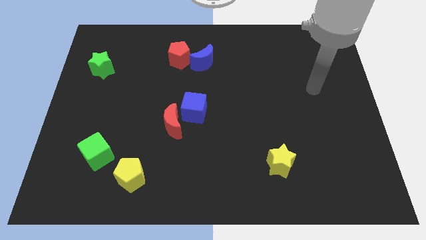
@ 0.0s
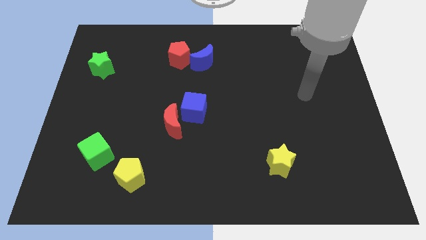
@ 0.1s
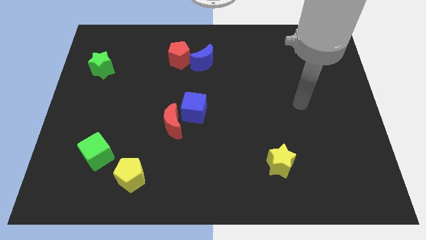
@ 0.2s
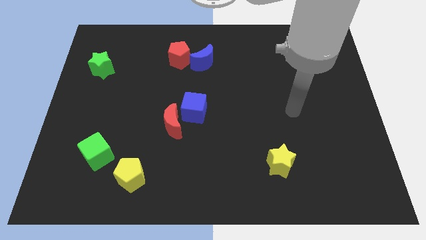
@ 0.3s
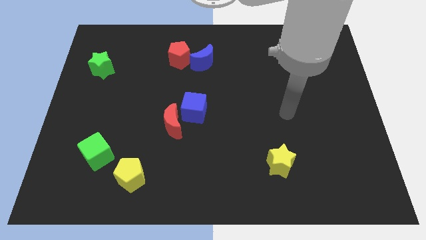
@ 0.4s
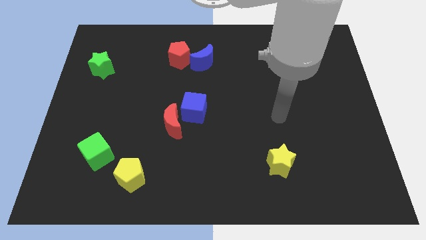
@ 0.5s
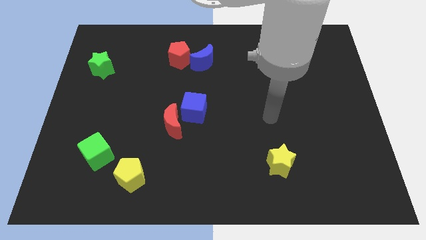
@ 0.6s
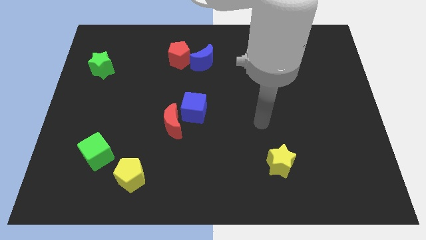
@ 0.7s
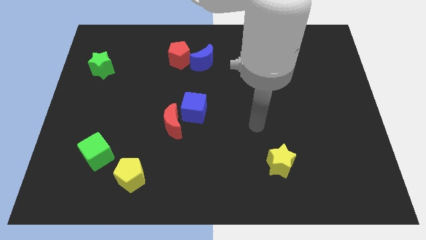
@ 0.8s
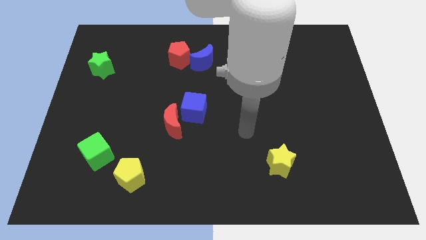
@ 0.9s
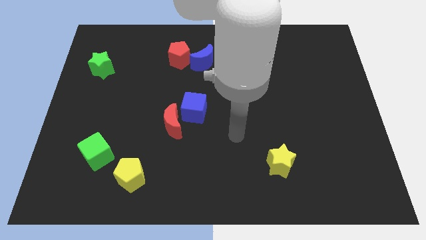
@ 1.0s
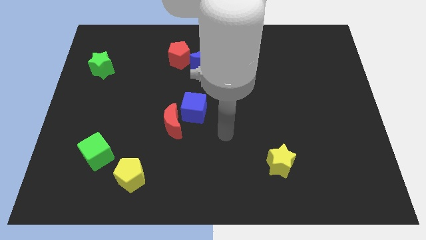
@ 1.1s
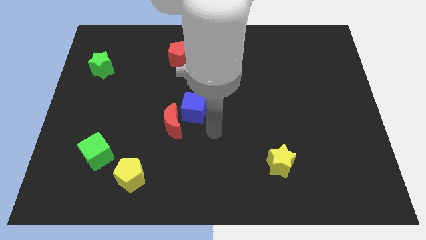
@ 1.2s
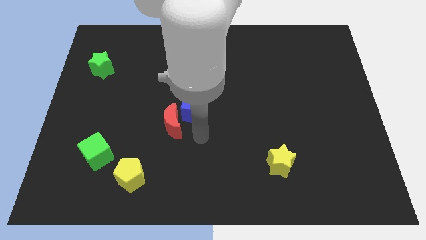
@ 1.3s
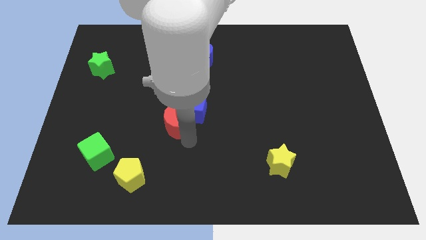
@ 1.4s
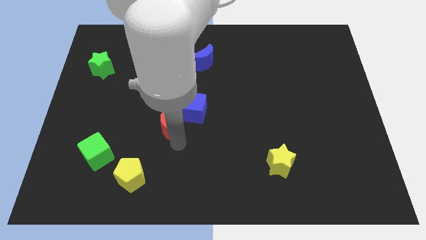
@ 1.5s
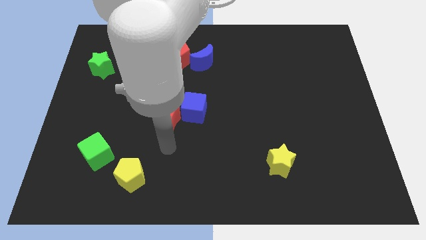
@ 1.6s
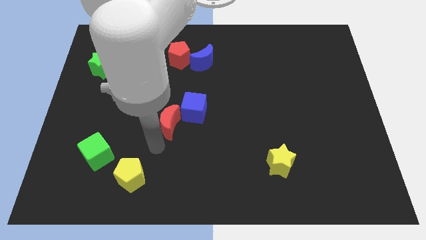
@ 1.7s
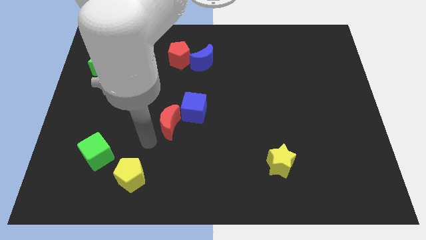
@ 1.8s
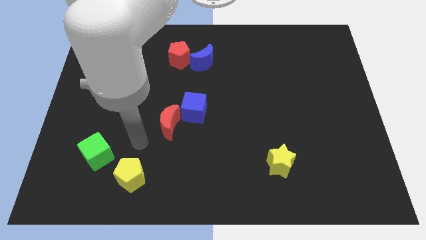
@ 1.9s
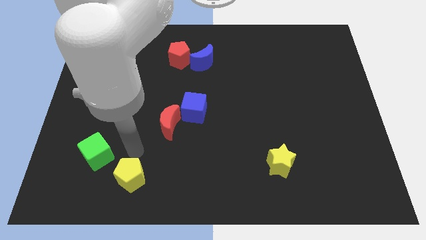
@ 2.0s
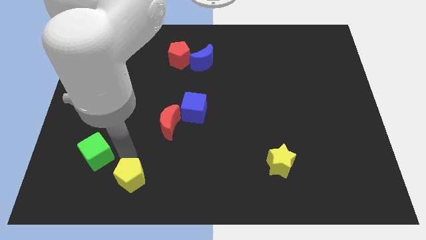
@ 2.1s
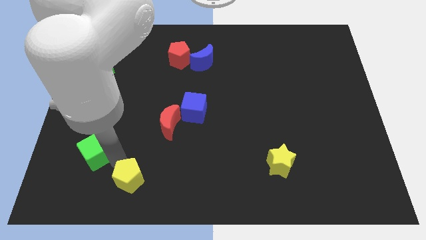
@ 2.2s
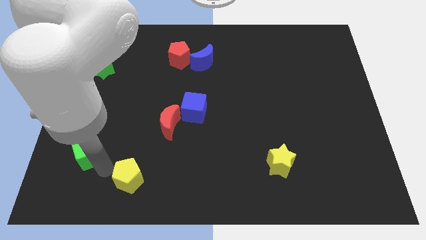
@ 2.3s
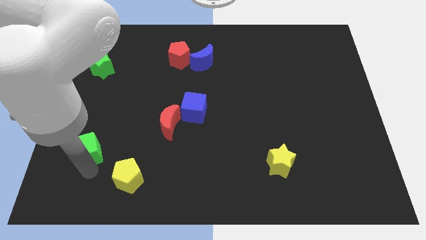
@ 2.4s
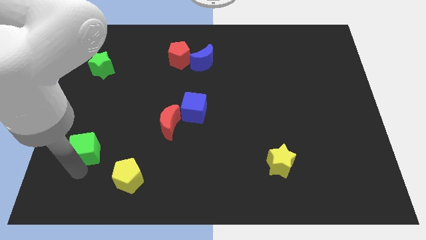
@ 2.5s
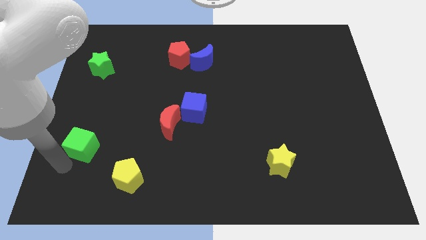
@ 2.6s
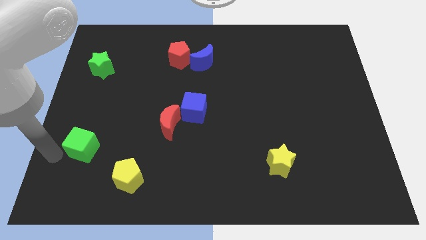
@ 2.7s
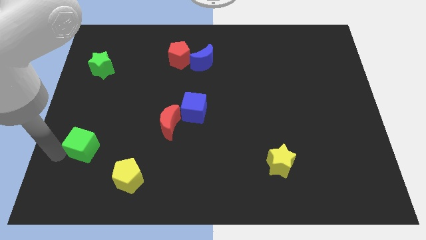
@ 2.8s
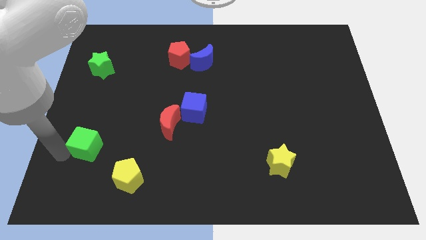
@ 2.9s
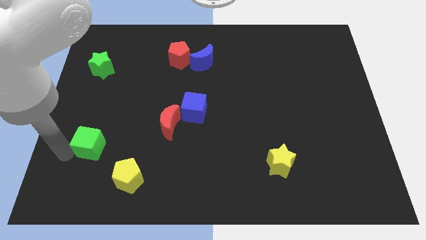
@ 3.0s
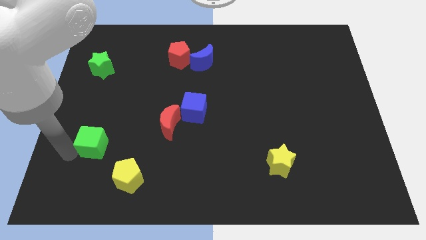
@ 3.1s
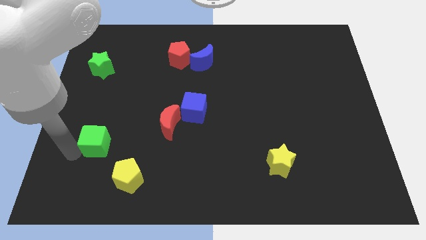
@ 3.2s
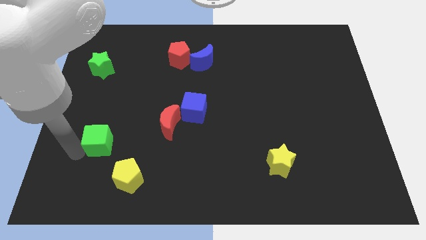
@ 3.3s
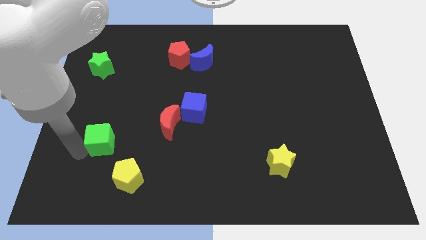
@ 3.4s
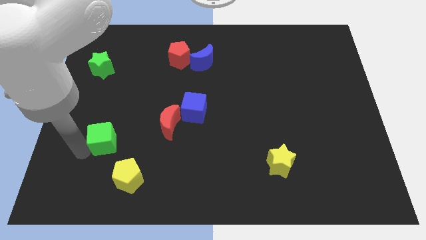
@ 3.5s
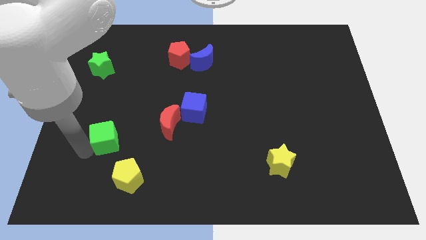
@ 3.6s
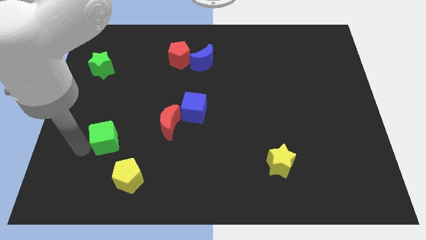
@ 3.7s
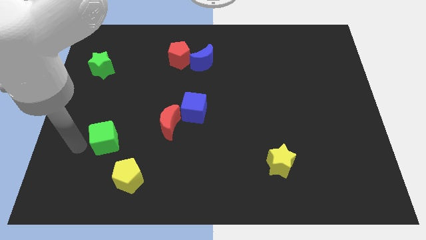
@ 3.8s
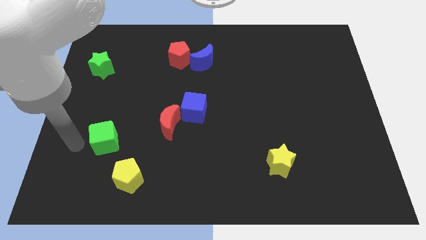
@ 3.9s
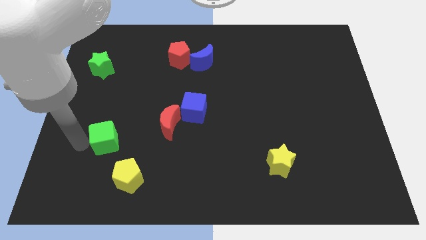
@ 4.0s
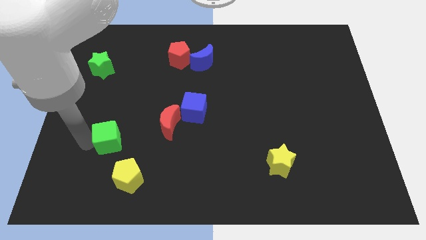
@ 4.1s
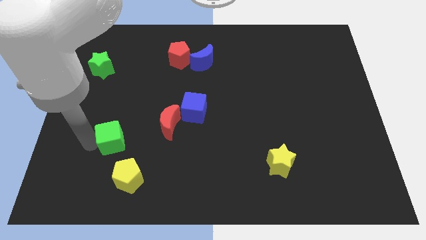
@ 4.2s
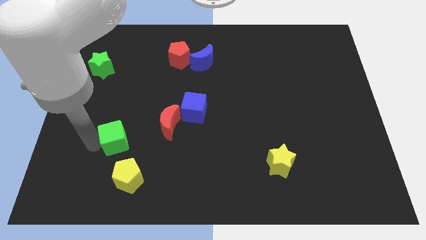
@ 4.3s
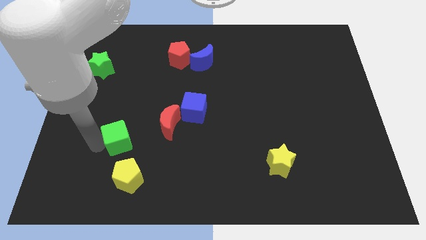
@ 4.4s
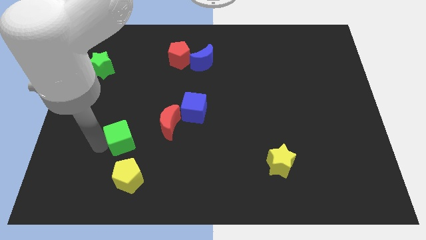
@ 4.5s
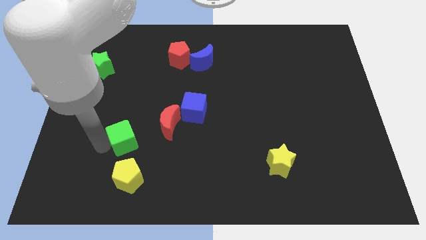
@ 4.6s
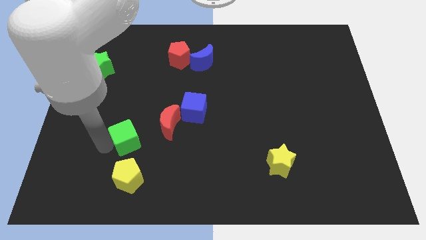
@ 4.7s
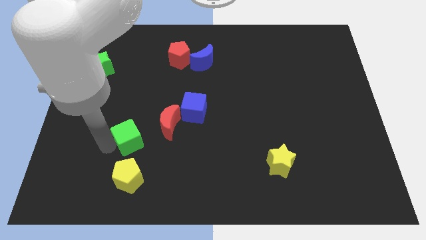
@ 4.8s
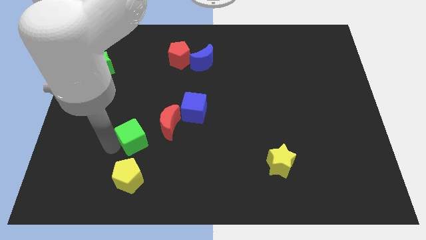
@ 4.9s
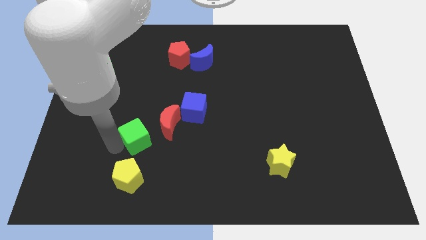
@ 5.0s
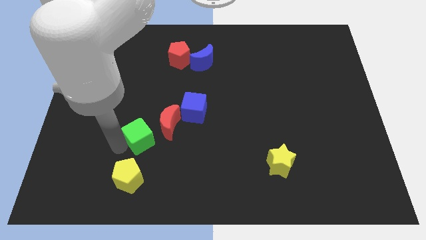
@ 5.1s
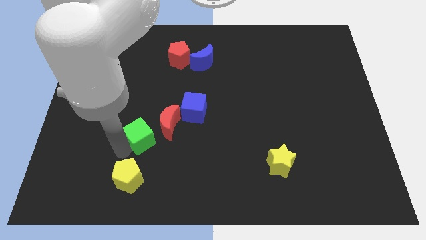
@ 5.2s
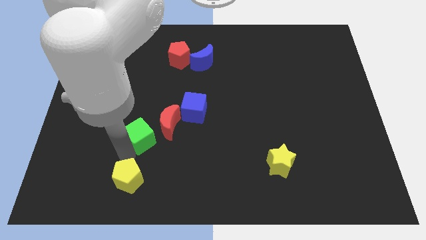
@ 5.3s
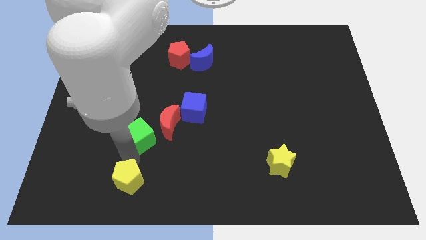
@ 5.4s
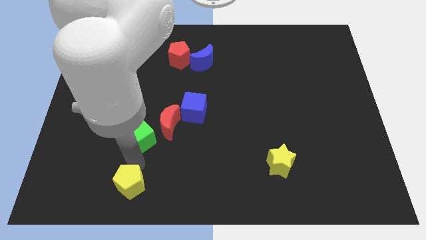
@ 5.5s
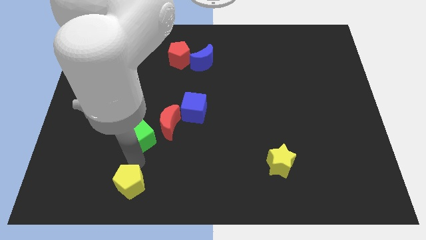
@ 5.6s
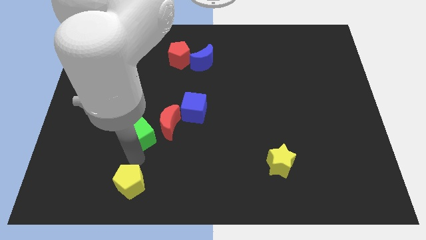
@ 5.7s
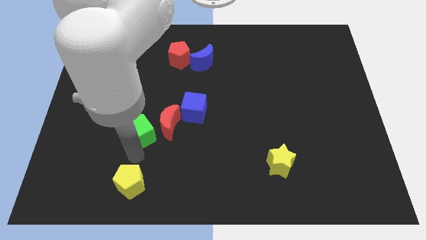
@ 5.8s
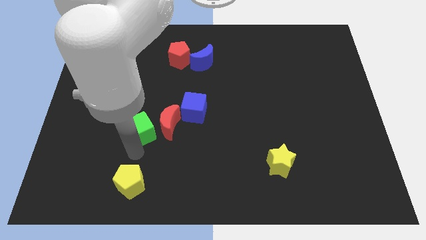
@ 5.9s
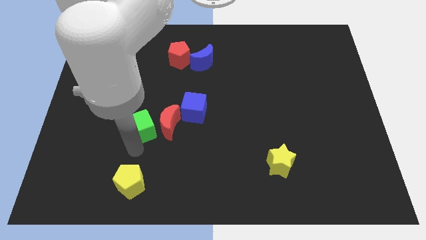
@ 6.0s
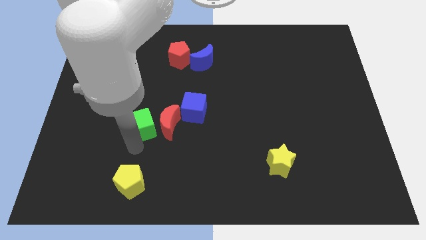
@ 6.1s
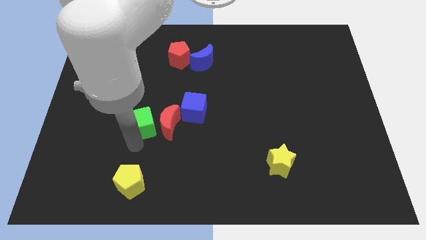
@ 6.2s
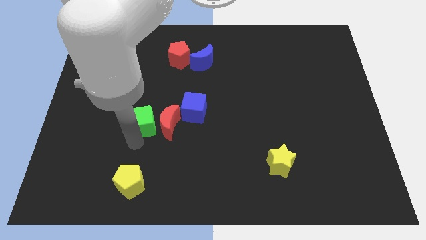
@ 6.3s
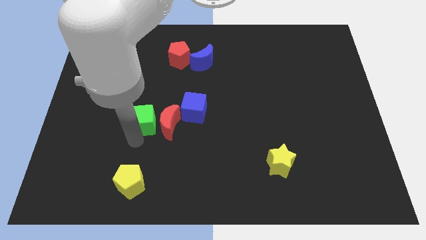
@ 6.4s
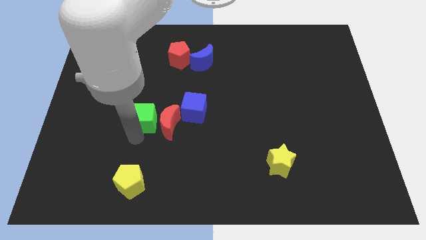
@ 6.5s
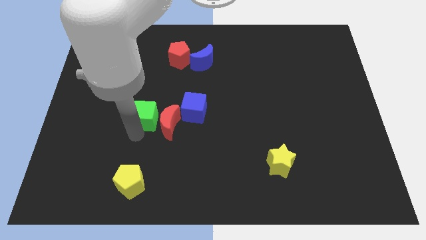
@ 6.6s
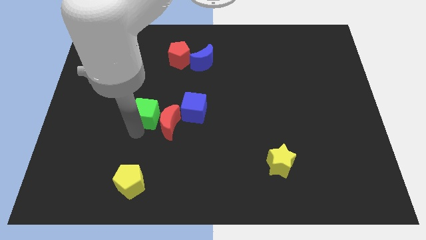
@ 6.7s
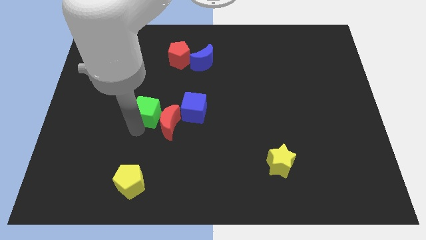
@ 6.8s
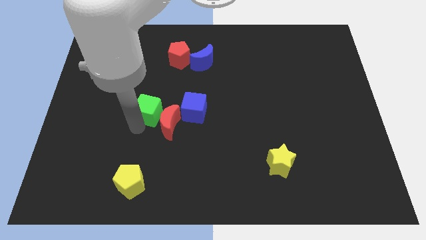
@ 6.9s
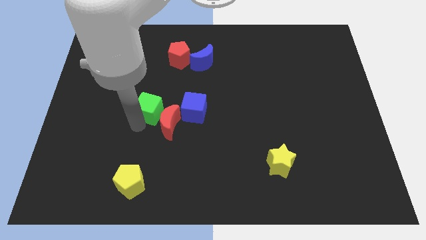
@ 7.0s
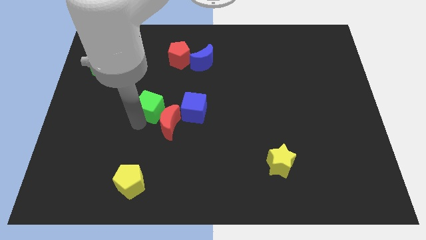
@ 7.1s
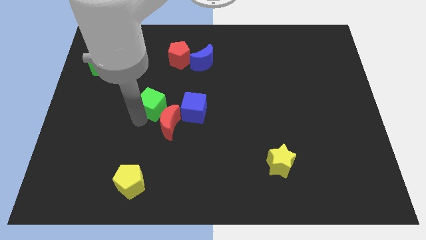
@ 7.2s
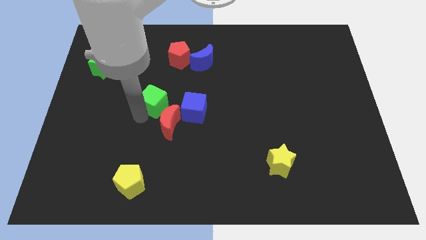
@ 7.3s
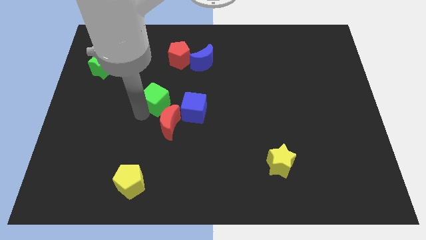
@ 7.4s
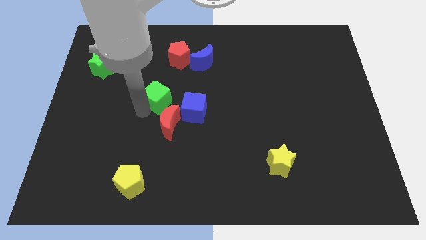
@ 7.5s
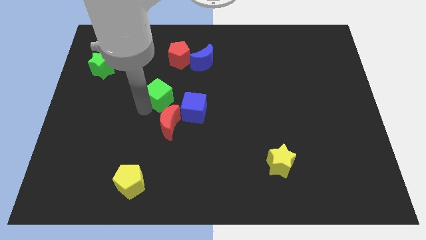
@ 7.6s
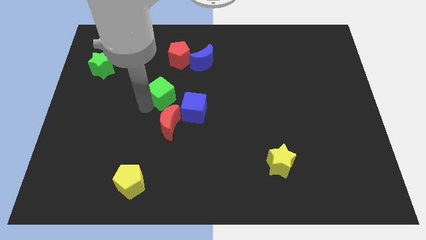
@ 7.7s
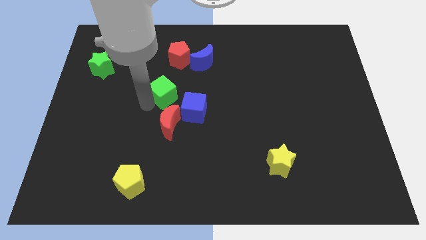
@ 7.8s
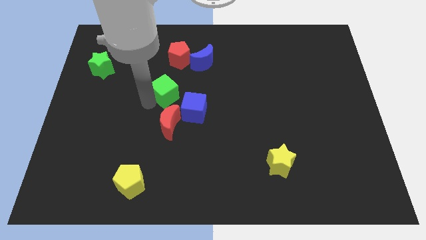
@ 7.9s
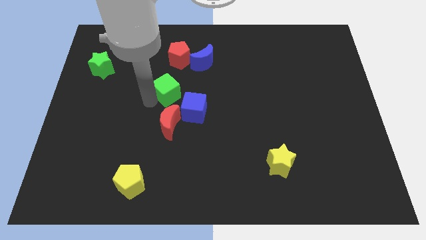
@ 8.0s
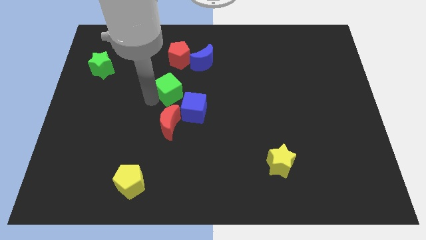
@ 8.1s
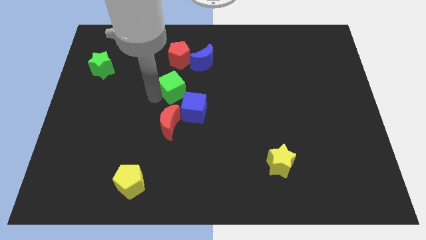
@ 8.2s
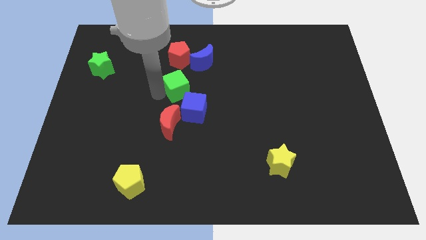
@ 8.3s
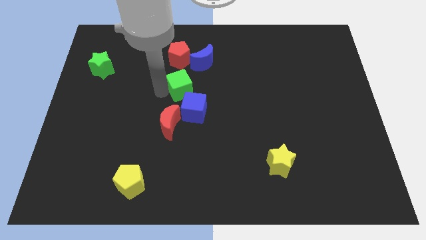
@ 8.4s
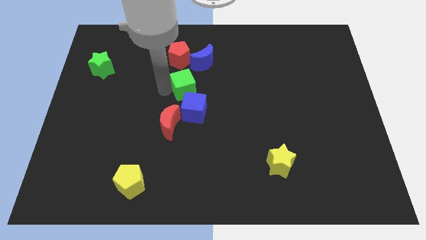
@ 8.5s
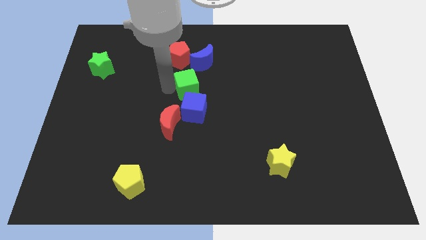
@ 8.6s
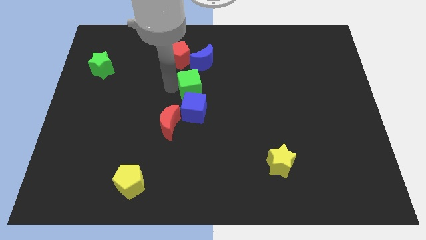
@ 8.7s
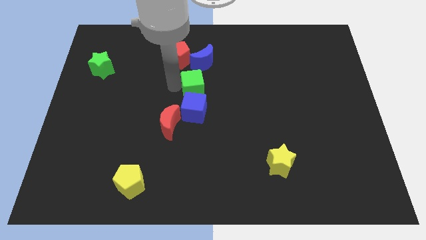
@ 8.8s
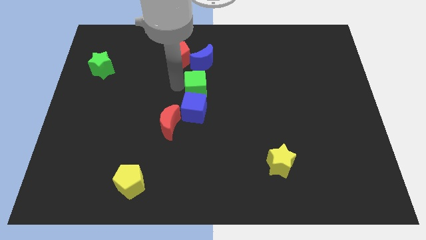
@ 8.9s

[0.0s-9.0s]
put the green cube diagonally up and to the right of the blue cube
